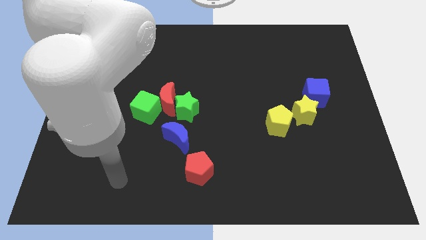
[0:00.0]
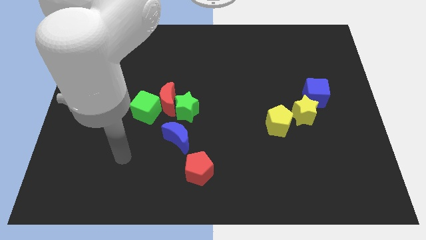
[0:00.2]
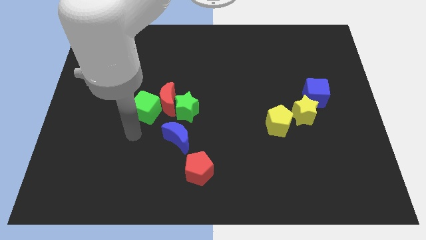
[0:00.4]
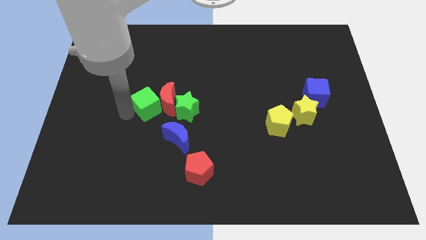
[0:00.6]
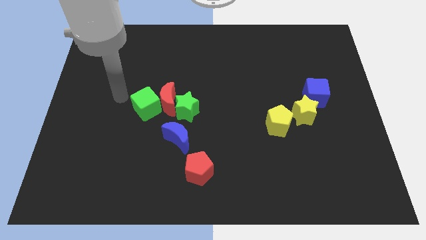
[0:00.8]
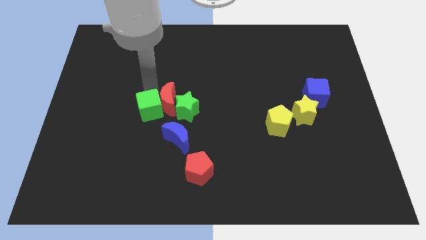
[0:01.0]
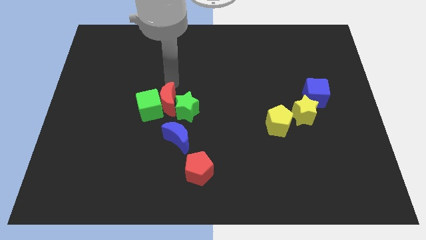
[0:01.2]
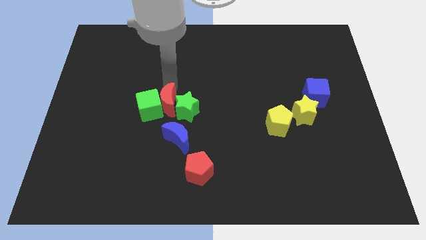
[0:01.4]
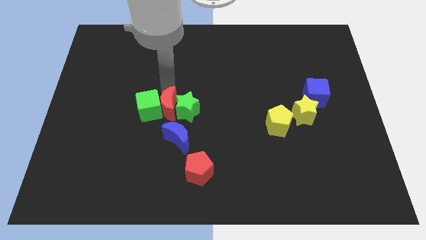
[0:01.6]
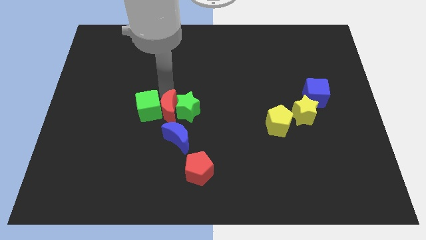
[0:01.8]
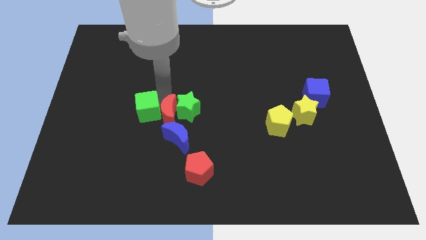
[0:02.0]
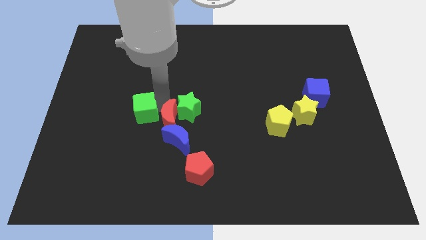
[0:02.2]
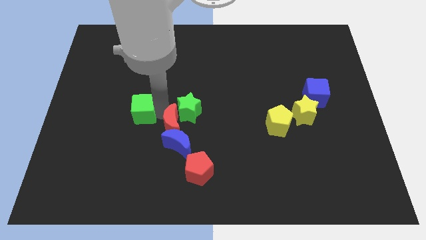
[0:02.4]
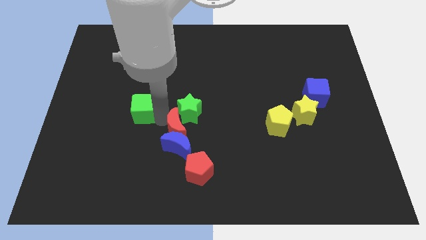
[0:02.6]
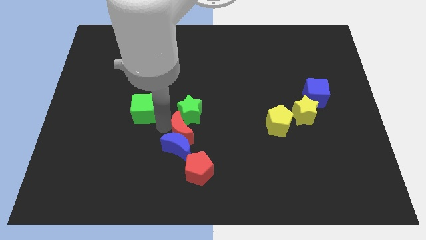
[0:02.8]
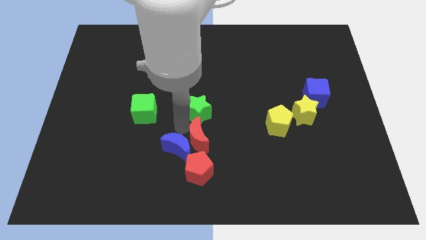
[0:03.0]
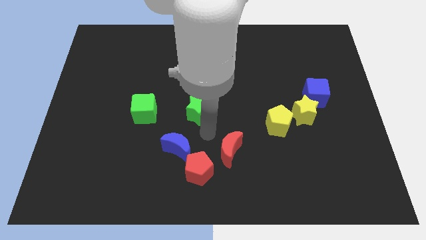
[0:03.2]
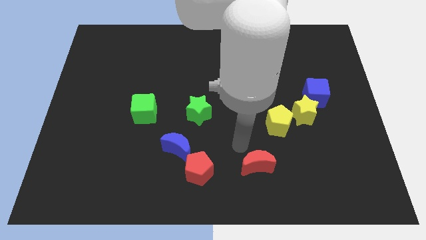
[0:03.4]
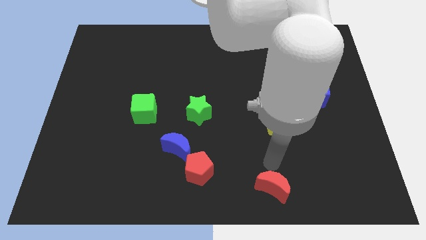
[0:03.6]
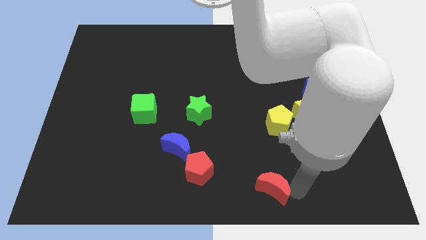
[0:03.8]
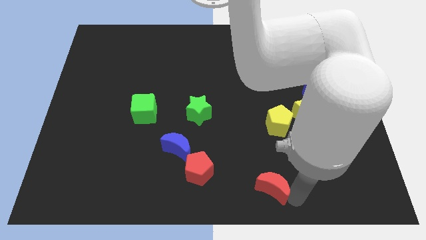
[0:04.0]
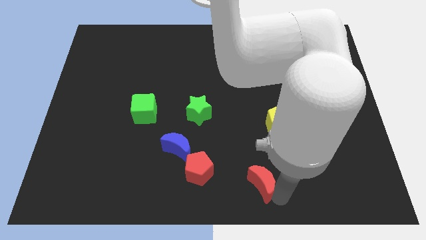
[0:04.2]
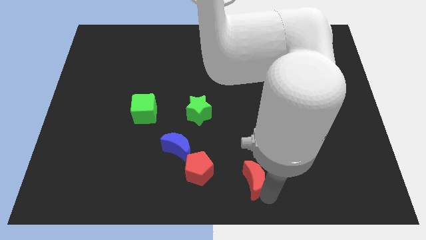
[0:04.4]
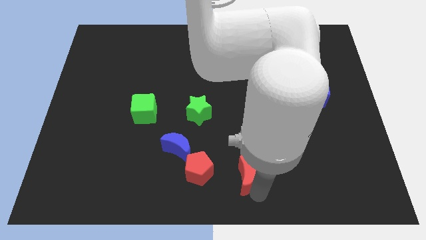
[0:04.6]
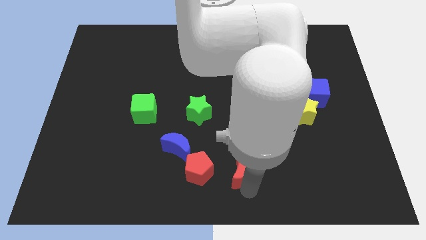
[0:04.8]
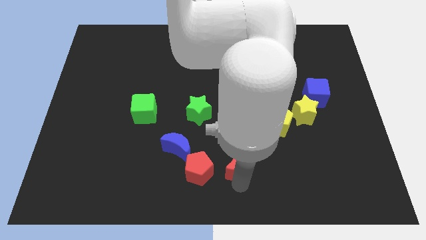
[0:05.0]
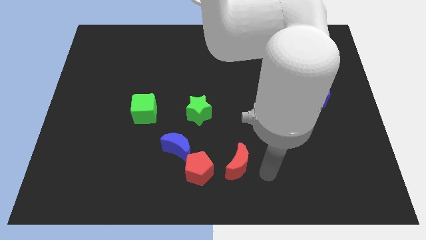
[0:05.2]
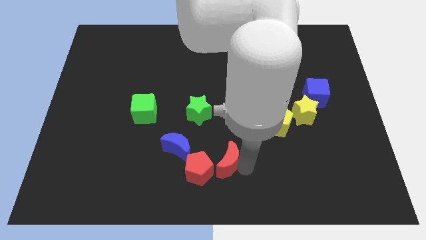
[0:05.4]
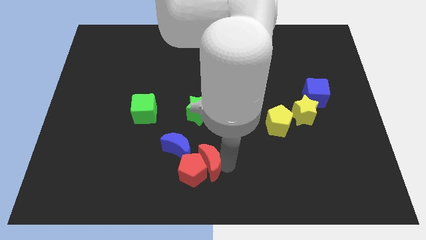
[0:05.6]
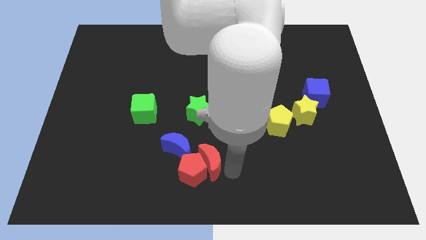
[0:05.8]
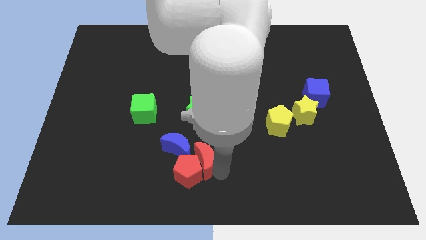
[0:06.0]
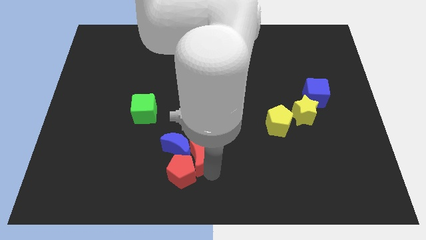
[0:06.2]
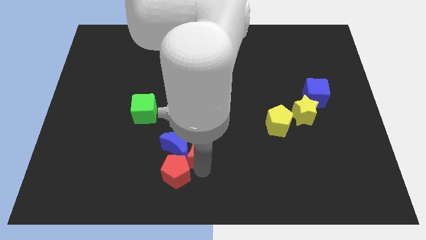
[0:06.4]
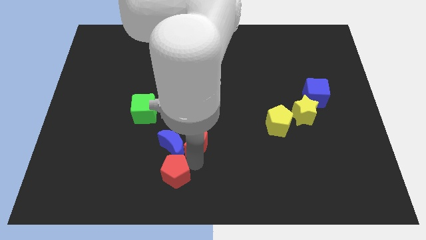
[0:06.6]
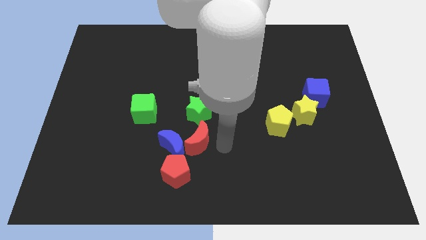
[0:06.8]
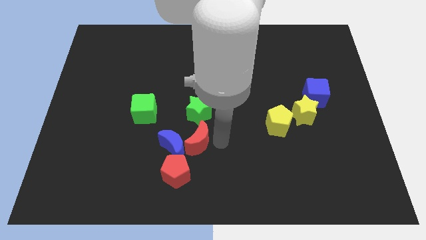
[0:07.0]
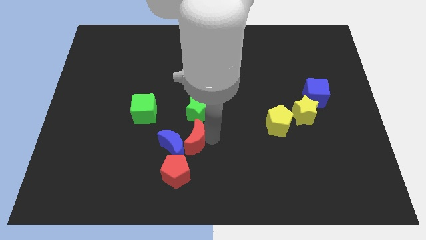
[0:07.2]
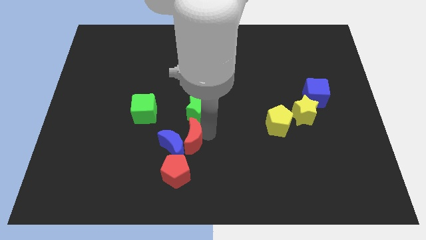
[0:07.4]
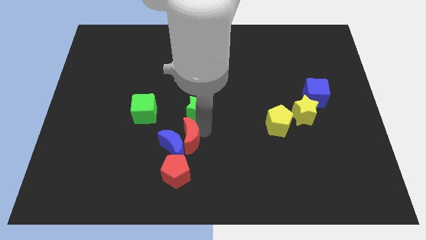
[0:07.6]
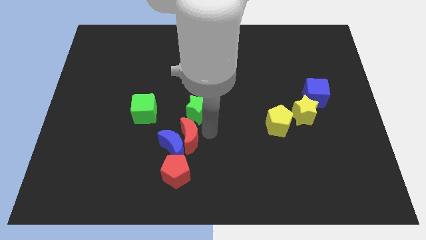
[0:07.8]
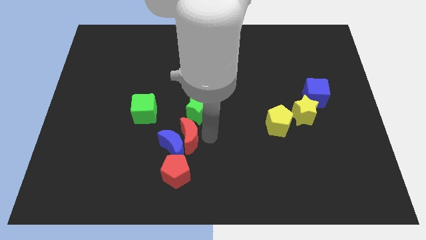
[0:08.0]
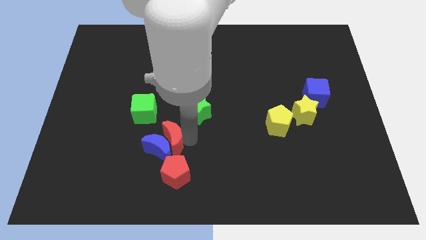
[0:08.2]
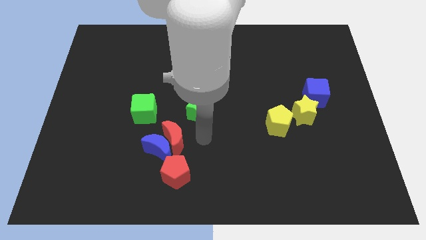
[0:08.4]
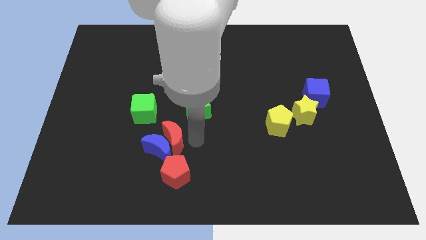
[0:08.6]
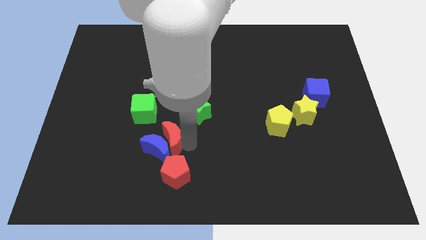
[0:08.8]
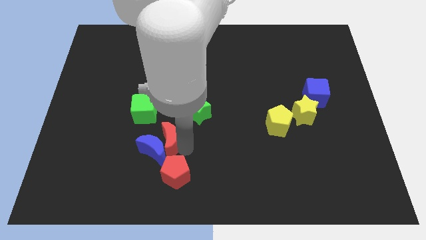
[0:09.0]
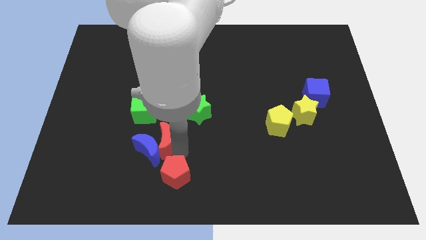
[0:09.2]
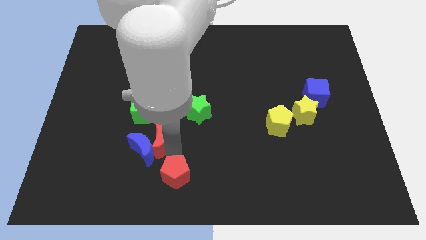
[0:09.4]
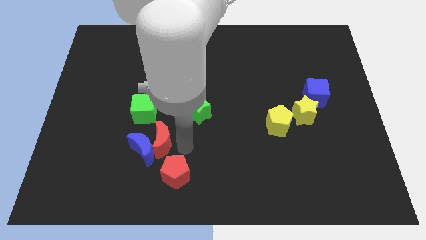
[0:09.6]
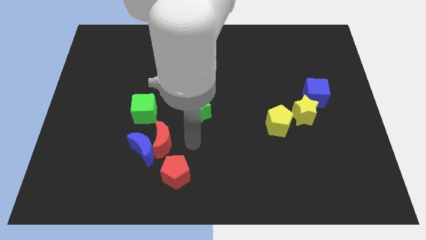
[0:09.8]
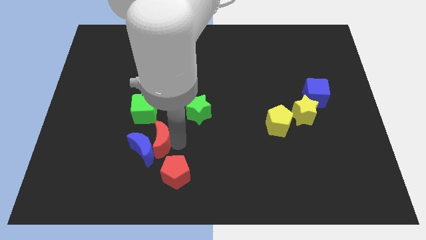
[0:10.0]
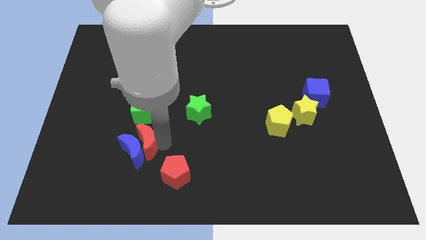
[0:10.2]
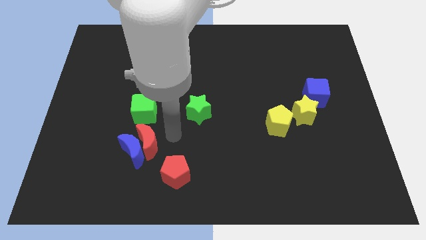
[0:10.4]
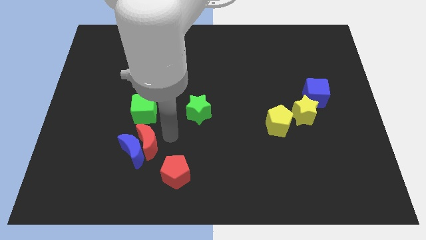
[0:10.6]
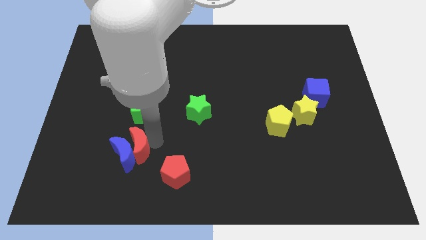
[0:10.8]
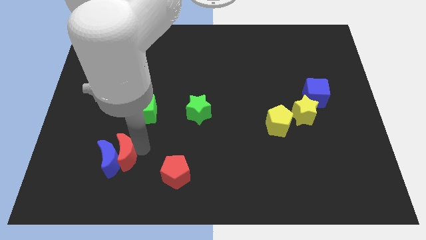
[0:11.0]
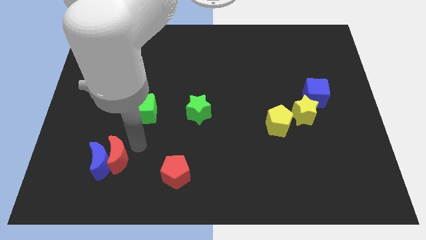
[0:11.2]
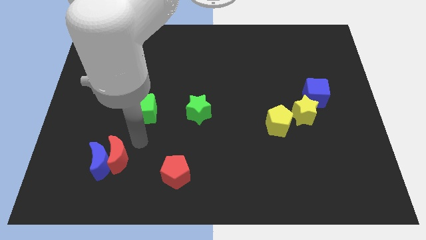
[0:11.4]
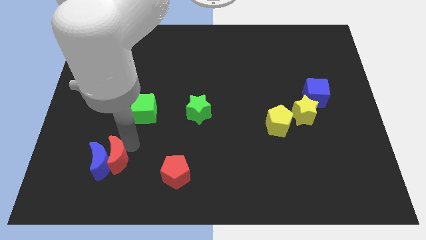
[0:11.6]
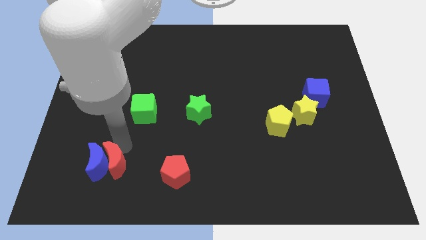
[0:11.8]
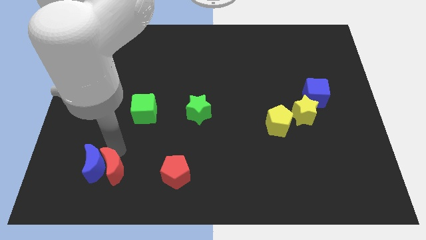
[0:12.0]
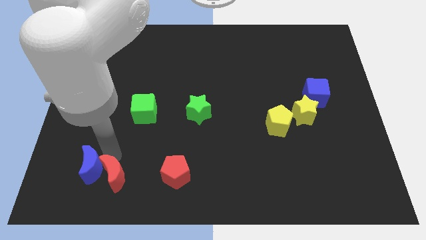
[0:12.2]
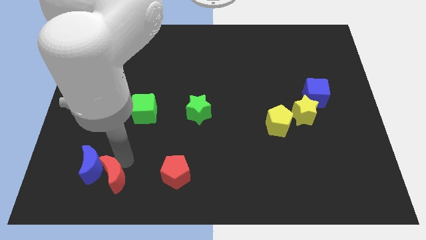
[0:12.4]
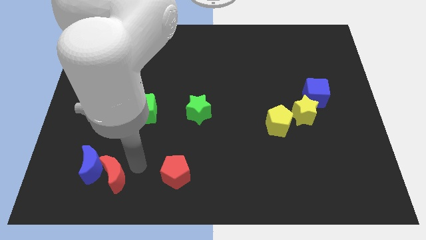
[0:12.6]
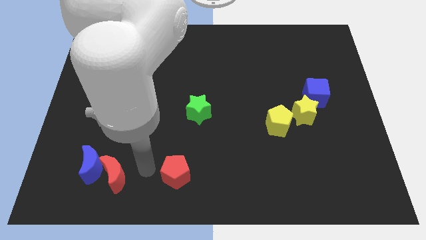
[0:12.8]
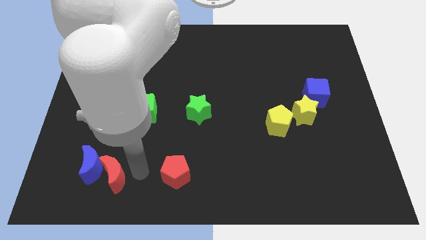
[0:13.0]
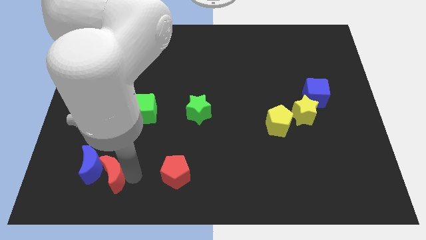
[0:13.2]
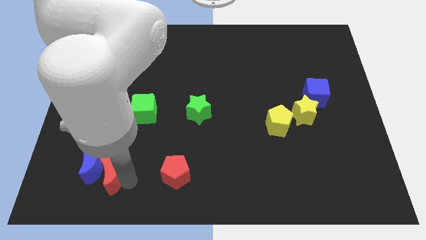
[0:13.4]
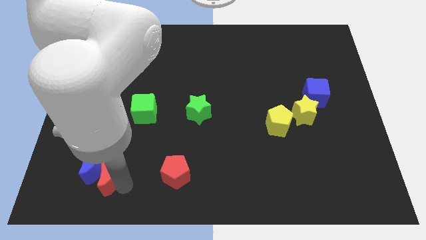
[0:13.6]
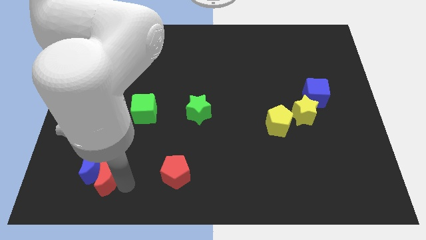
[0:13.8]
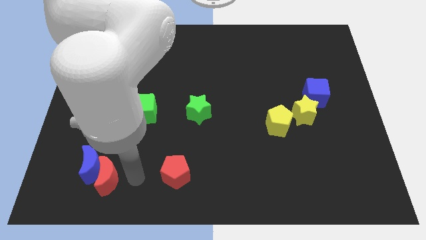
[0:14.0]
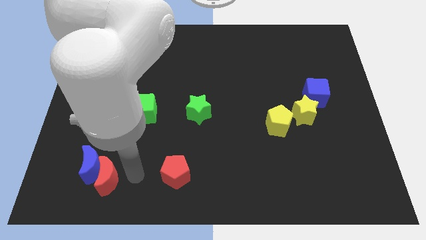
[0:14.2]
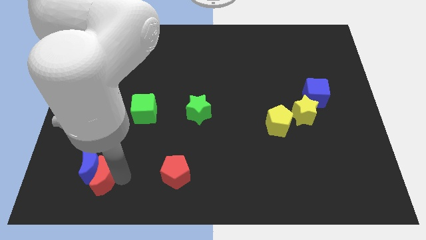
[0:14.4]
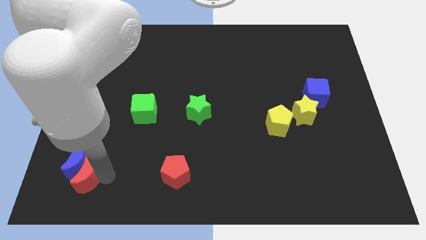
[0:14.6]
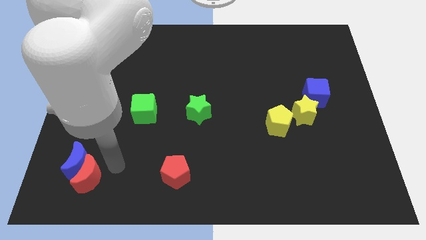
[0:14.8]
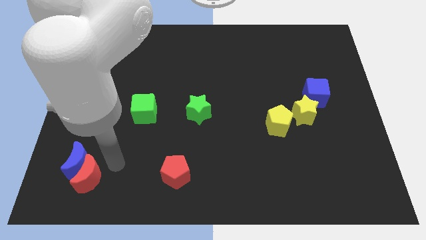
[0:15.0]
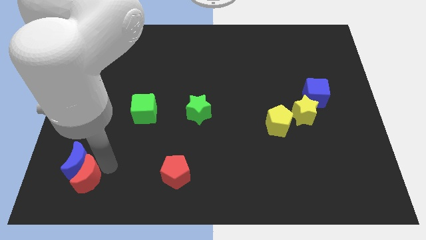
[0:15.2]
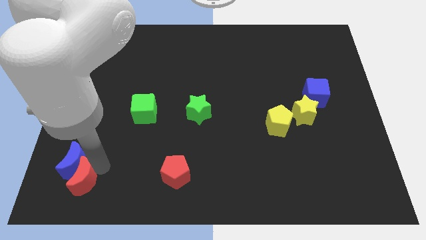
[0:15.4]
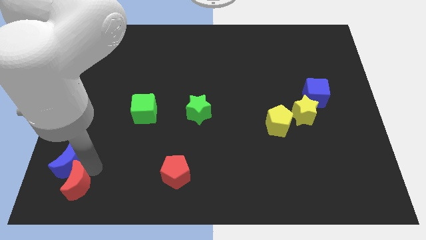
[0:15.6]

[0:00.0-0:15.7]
move the red moon to the bottom left of the board
